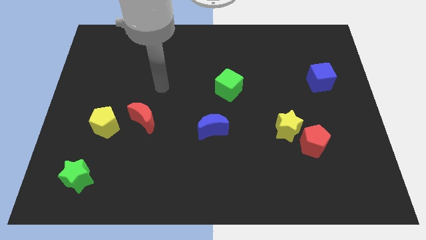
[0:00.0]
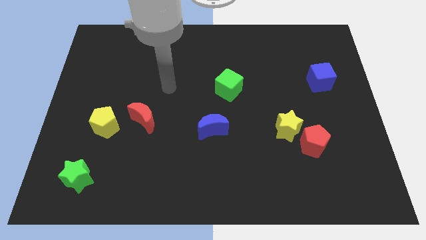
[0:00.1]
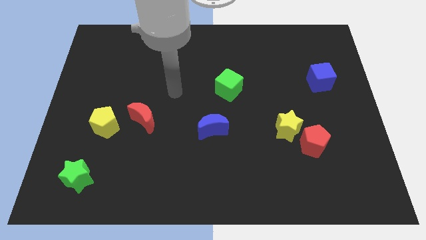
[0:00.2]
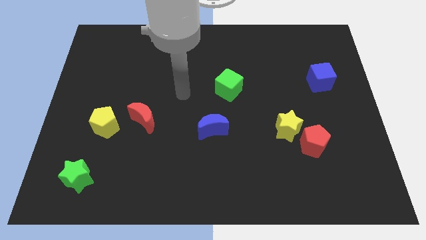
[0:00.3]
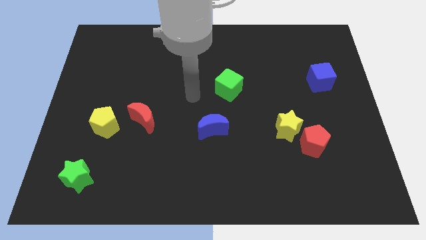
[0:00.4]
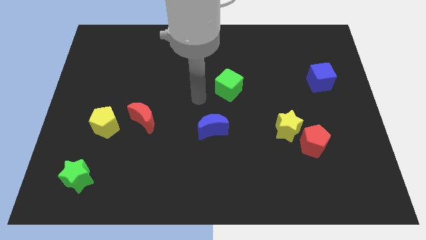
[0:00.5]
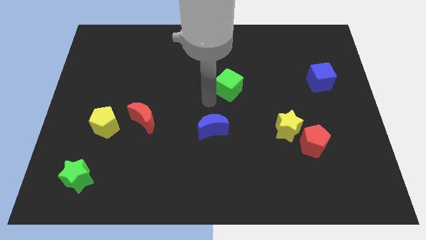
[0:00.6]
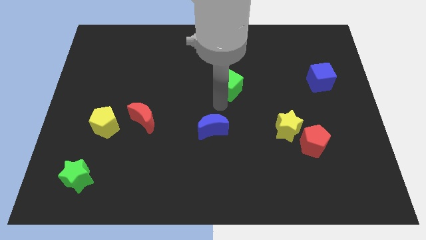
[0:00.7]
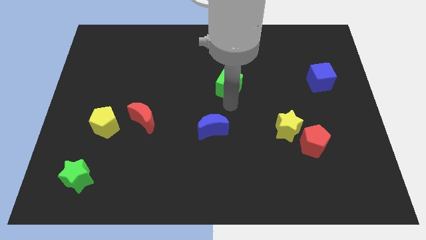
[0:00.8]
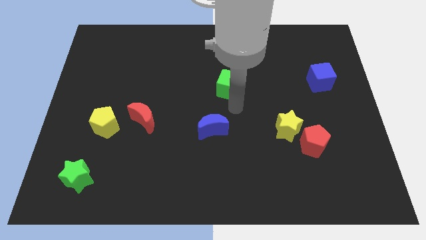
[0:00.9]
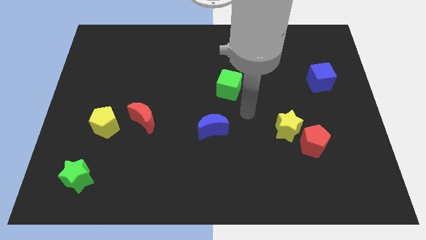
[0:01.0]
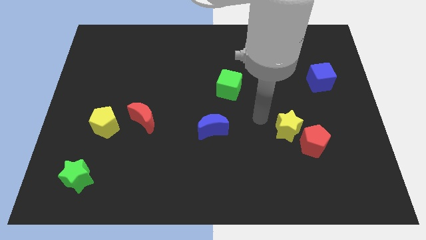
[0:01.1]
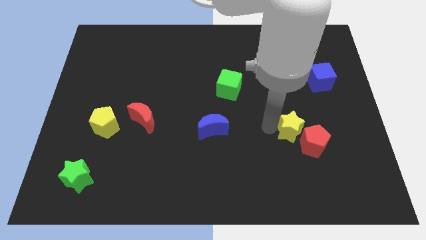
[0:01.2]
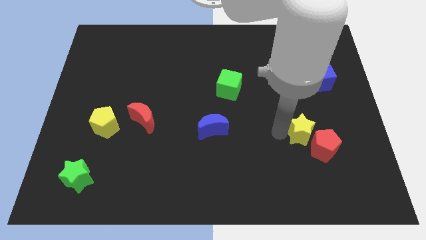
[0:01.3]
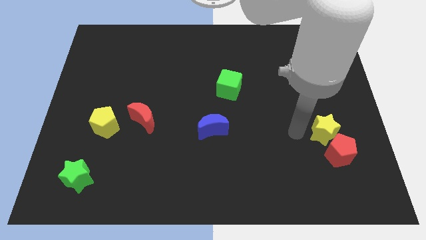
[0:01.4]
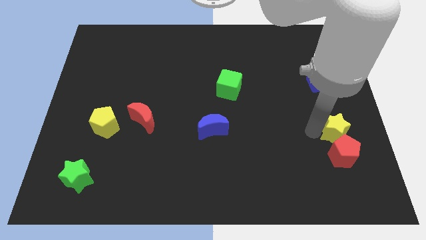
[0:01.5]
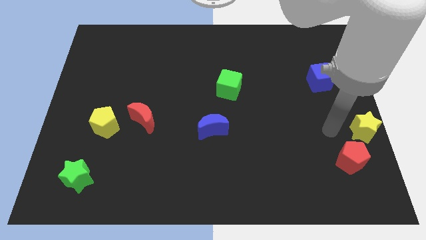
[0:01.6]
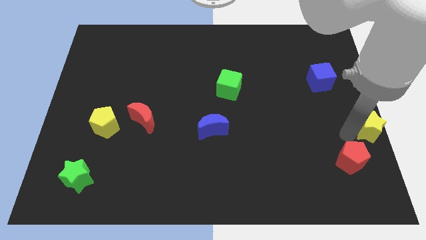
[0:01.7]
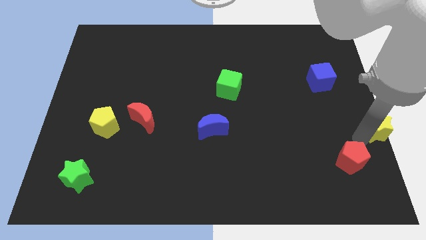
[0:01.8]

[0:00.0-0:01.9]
move the red pentagon away from the yellow star

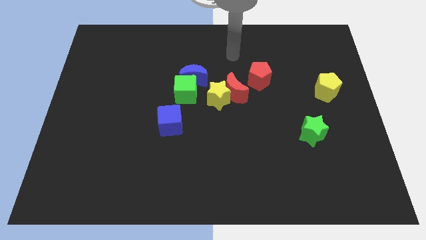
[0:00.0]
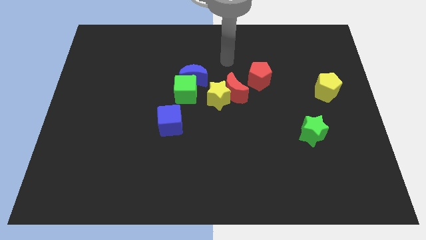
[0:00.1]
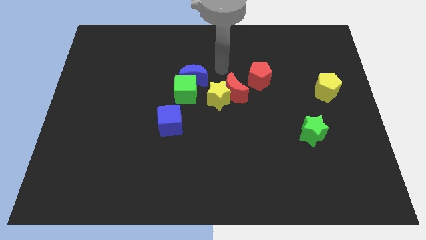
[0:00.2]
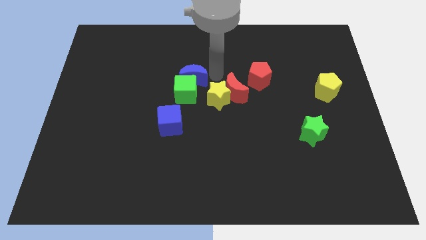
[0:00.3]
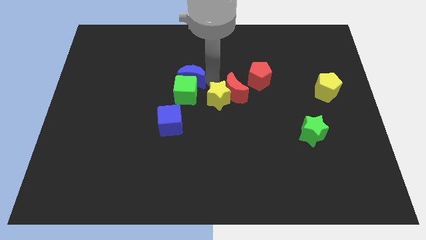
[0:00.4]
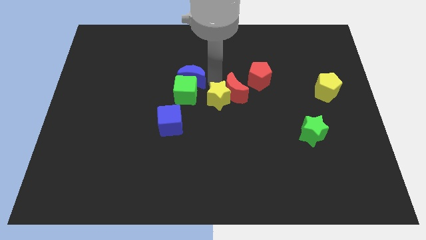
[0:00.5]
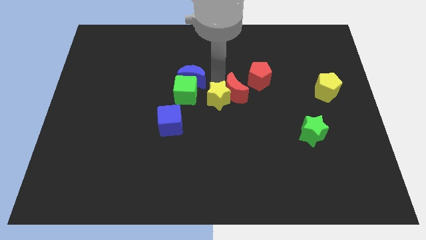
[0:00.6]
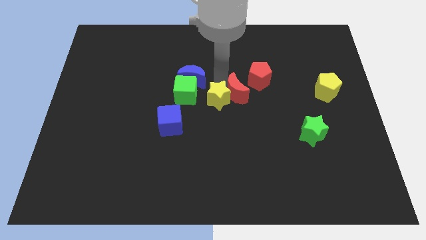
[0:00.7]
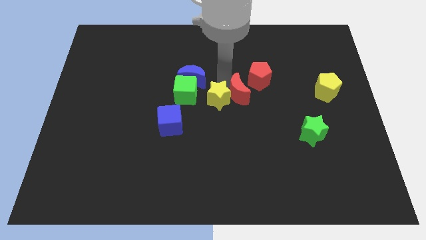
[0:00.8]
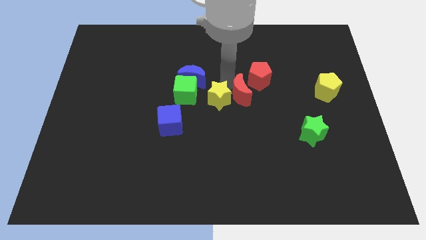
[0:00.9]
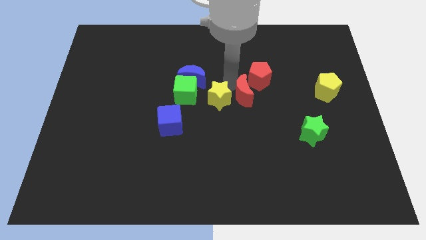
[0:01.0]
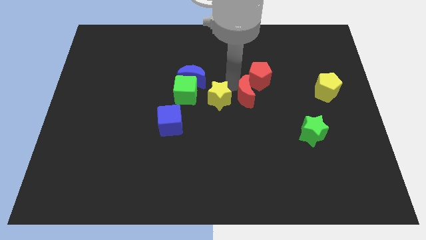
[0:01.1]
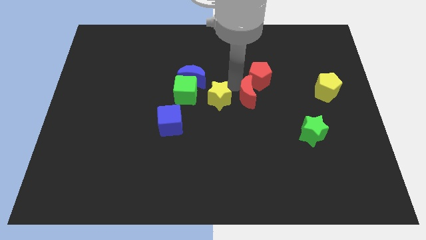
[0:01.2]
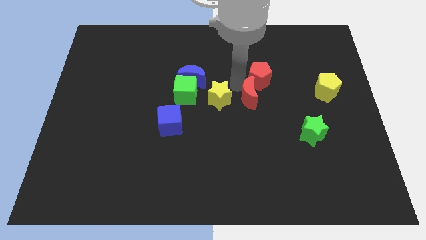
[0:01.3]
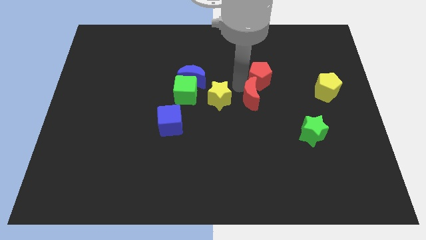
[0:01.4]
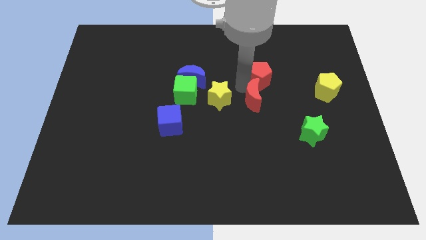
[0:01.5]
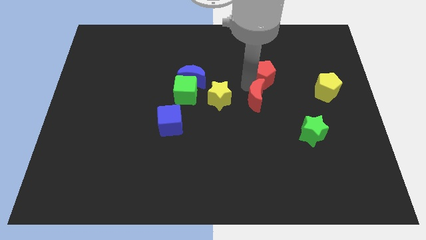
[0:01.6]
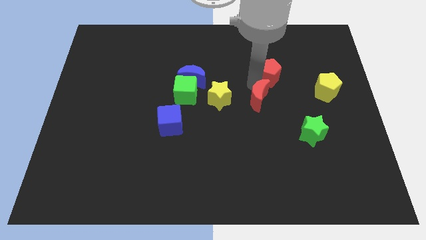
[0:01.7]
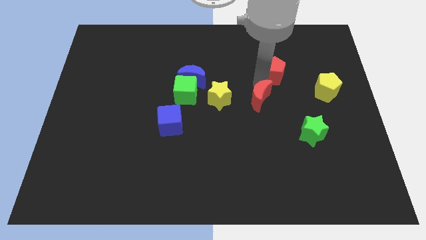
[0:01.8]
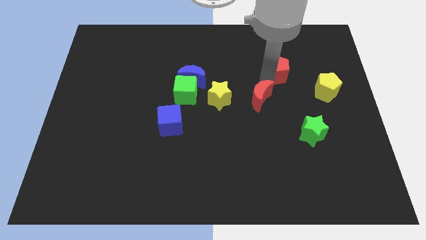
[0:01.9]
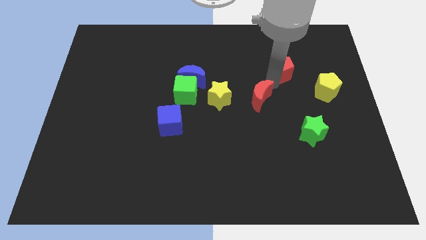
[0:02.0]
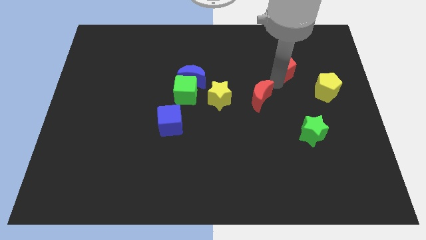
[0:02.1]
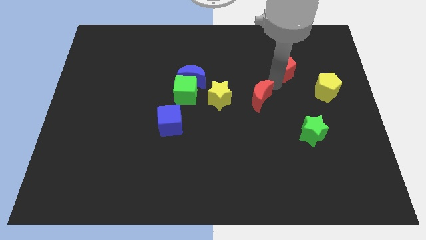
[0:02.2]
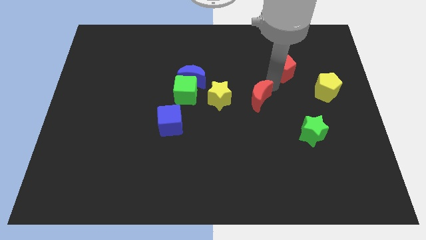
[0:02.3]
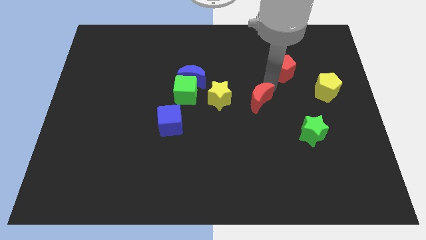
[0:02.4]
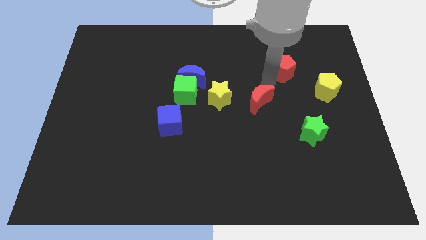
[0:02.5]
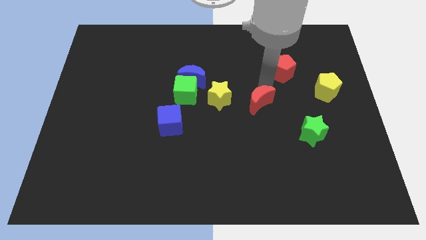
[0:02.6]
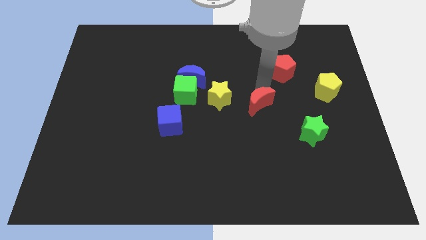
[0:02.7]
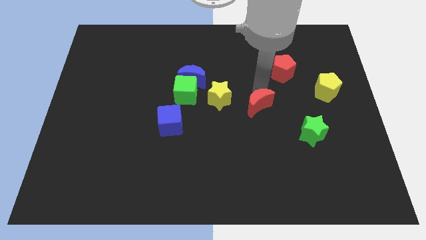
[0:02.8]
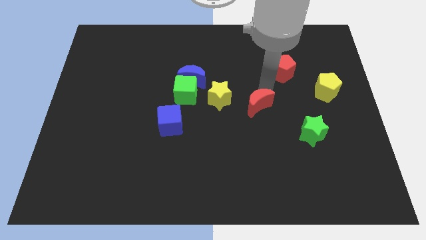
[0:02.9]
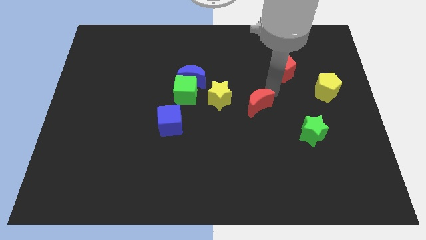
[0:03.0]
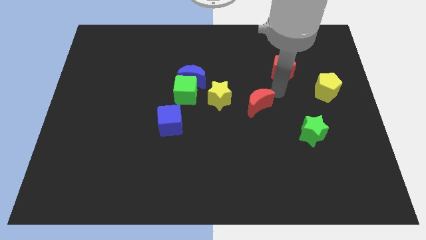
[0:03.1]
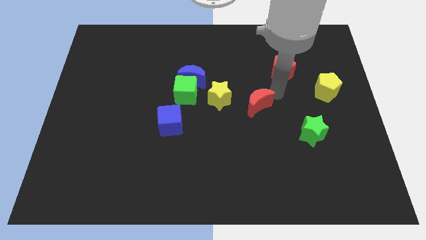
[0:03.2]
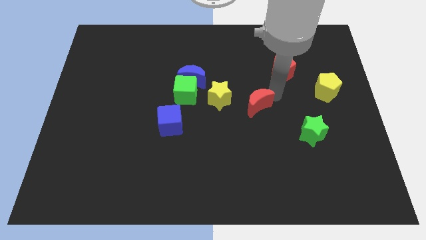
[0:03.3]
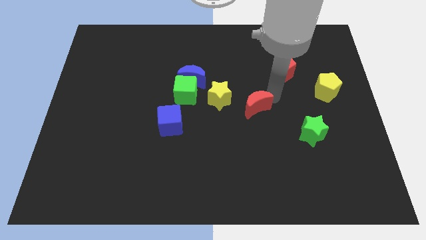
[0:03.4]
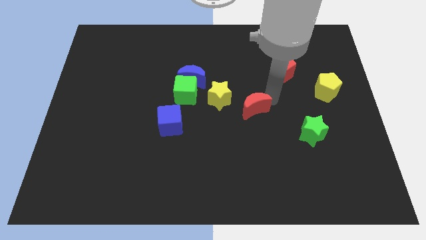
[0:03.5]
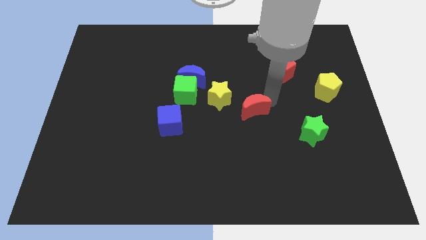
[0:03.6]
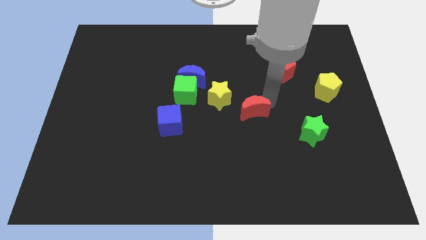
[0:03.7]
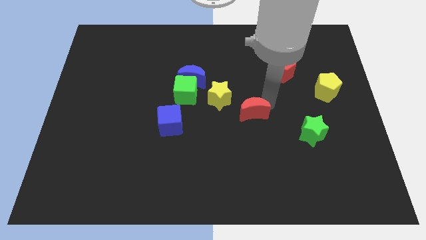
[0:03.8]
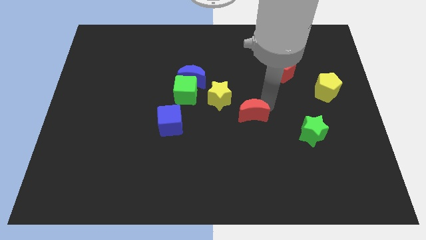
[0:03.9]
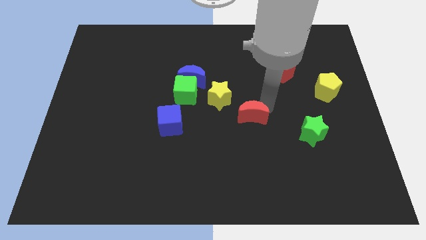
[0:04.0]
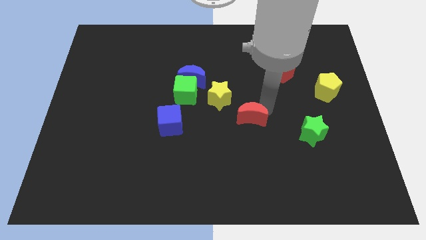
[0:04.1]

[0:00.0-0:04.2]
move the red moon away from the yellow star and red pentagon

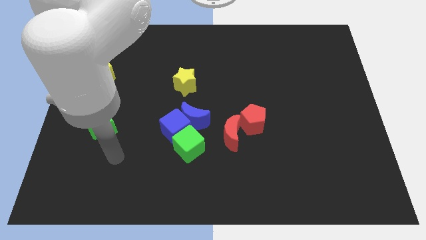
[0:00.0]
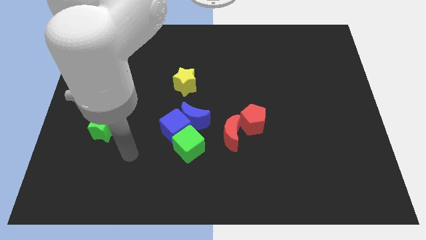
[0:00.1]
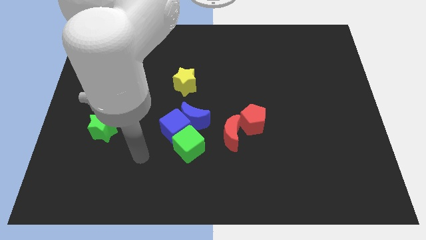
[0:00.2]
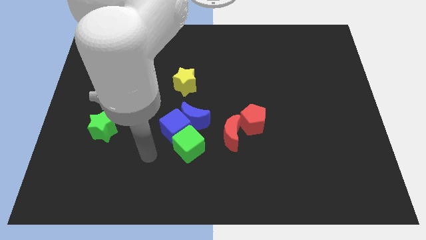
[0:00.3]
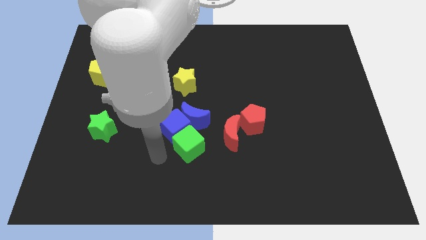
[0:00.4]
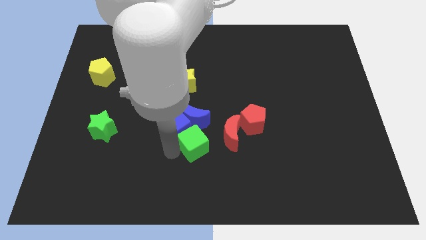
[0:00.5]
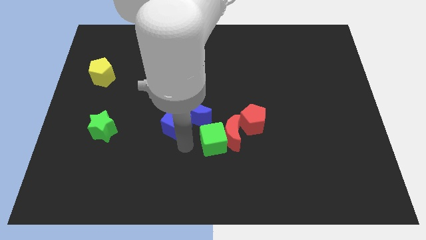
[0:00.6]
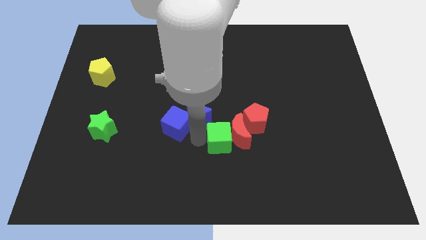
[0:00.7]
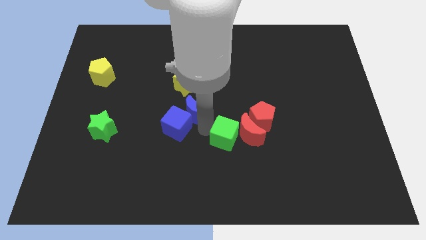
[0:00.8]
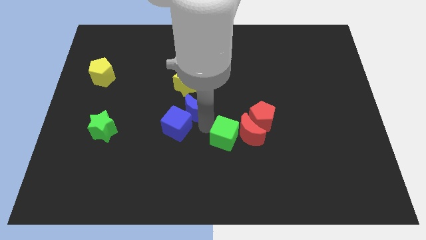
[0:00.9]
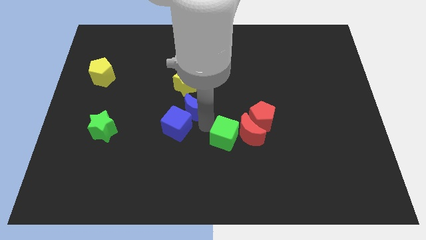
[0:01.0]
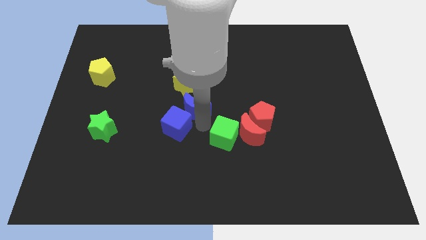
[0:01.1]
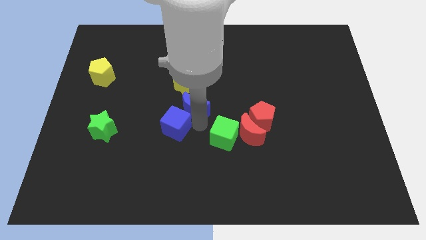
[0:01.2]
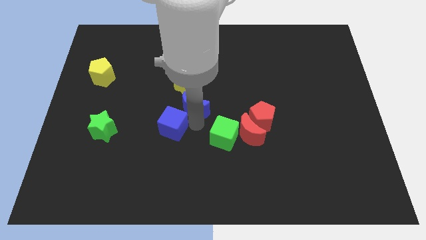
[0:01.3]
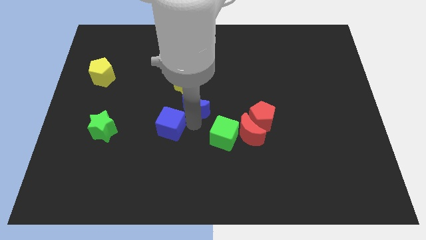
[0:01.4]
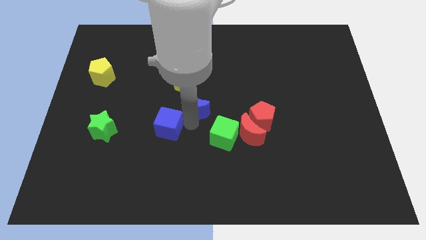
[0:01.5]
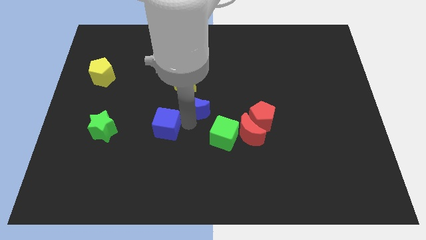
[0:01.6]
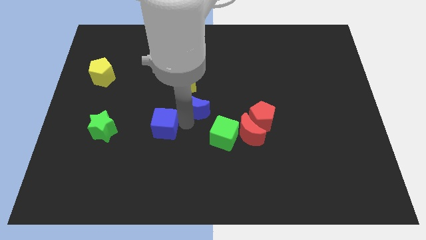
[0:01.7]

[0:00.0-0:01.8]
move the blue cube away from the blue moon and green cube

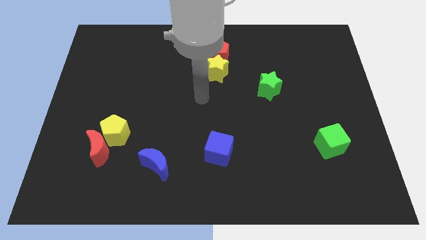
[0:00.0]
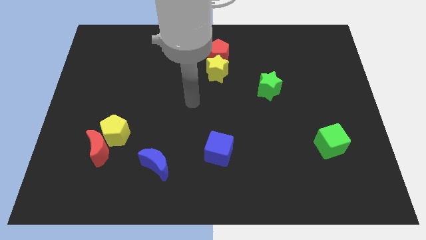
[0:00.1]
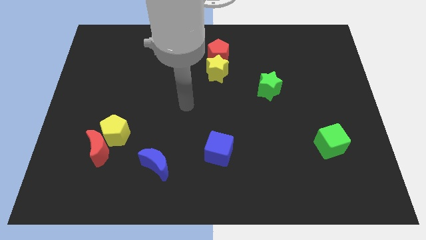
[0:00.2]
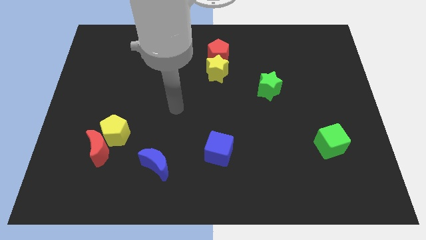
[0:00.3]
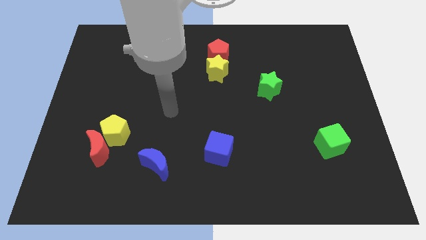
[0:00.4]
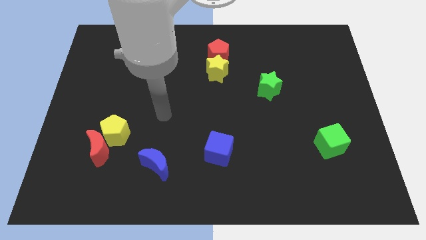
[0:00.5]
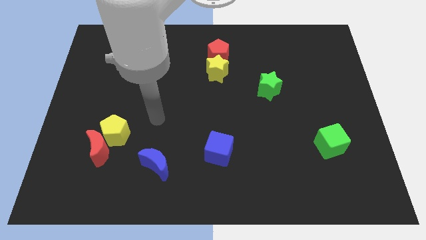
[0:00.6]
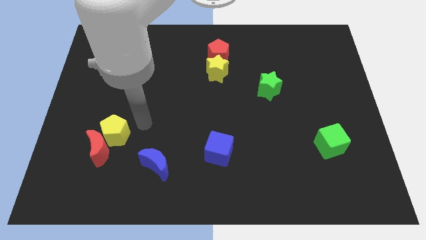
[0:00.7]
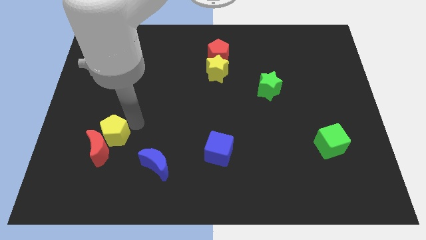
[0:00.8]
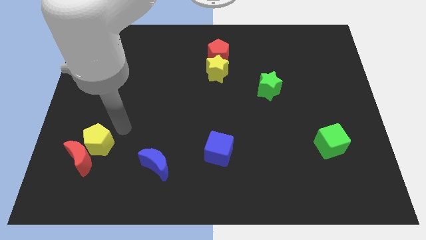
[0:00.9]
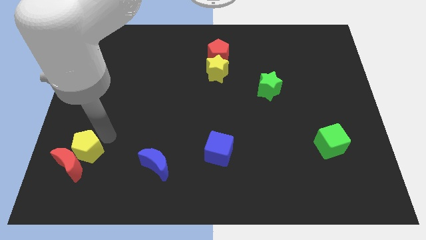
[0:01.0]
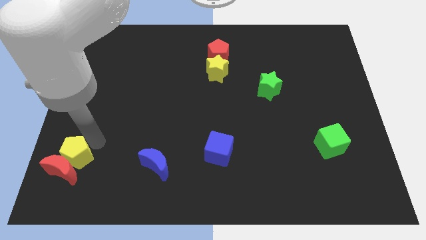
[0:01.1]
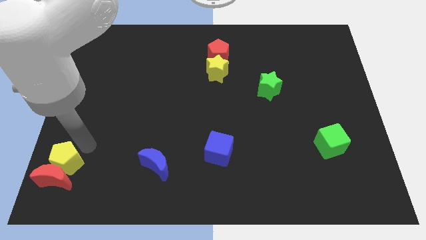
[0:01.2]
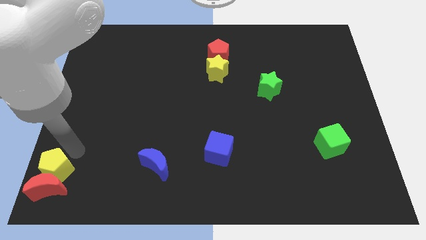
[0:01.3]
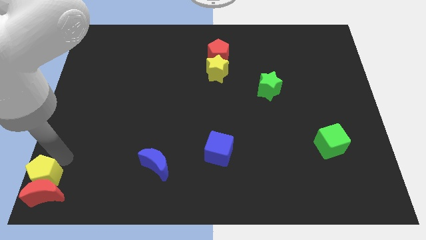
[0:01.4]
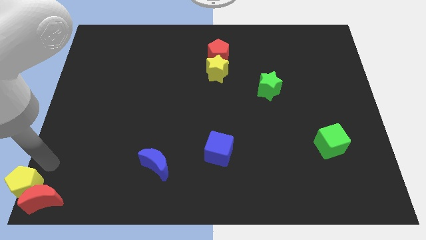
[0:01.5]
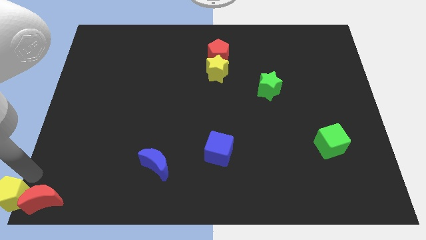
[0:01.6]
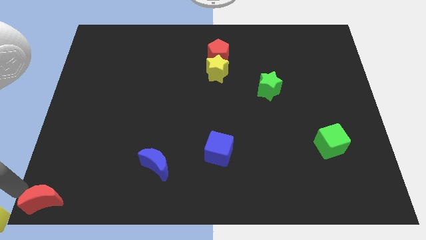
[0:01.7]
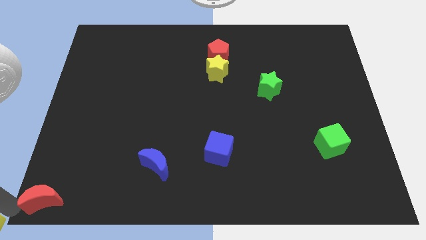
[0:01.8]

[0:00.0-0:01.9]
separate the red moon from the yellow pentagon
